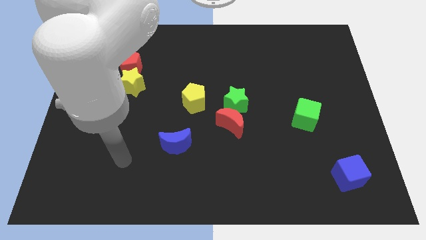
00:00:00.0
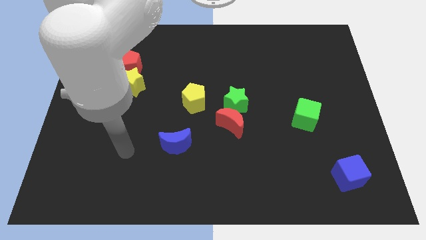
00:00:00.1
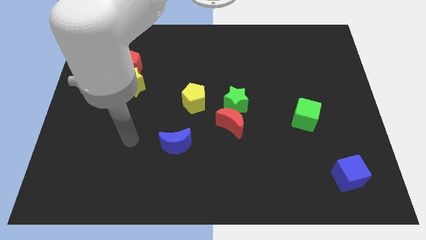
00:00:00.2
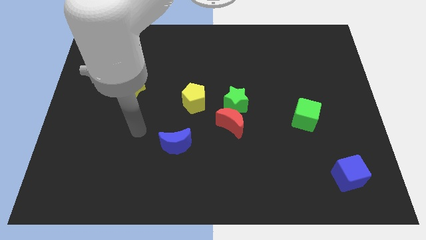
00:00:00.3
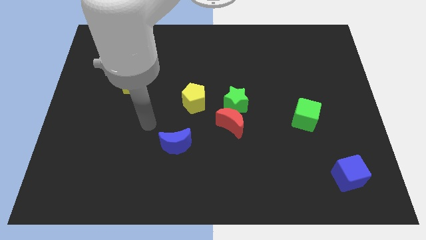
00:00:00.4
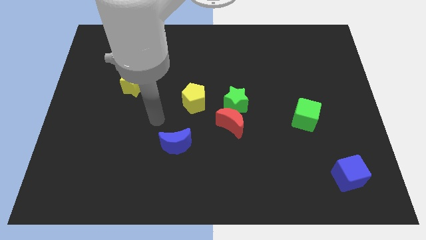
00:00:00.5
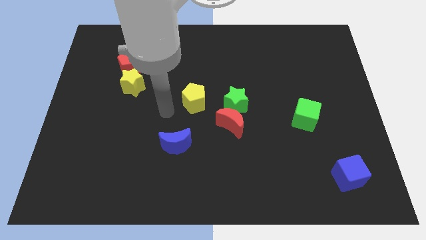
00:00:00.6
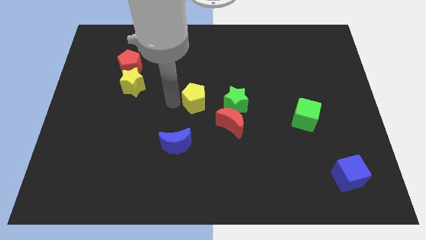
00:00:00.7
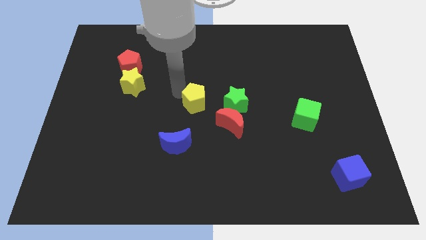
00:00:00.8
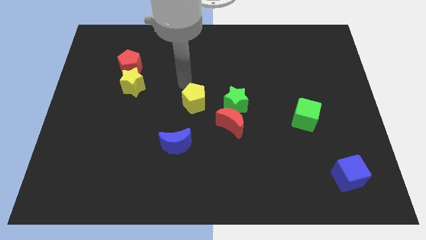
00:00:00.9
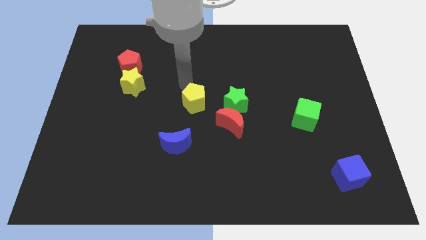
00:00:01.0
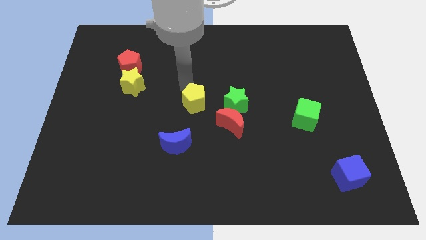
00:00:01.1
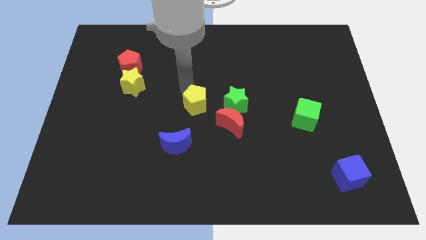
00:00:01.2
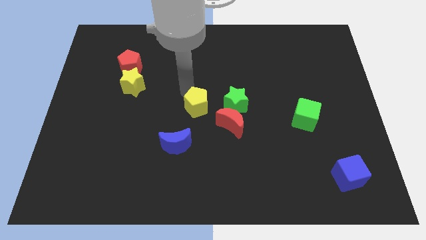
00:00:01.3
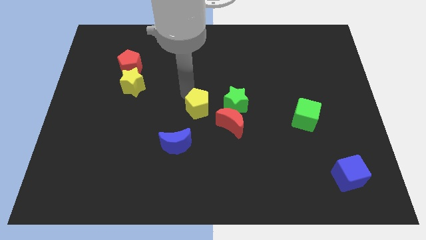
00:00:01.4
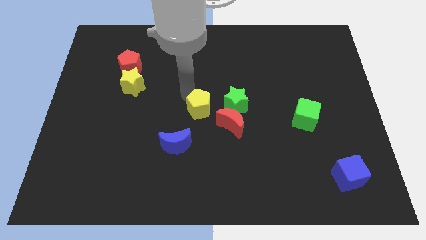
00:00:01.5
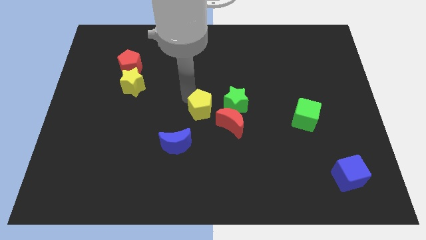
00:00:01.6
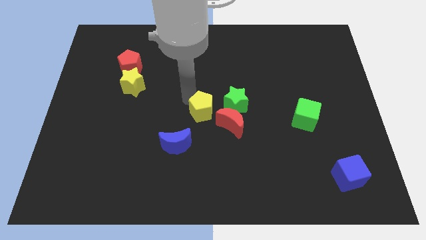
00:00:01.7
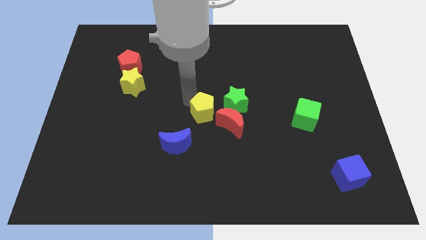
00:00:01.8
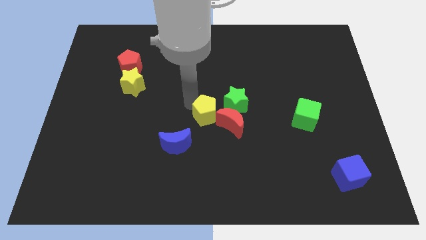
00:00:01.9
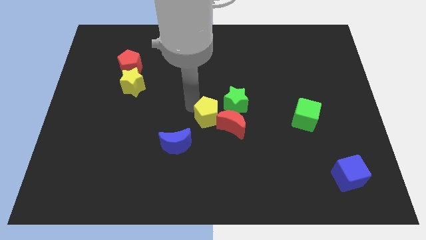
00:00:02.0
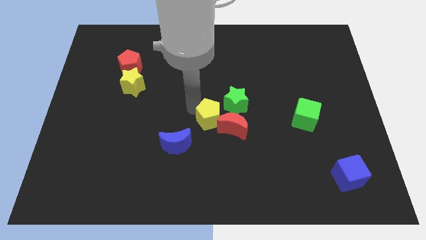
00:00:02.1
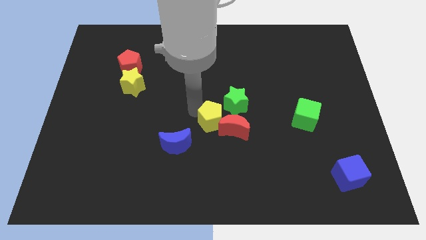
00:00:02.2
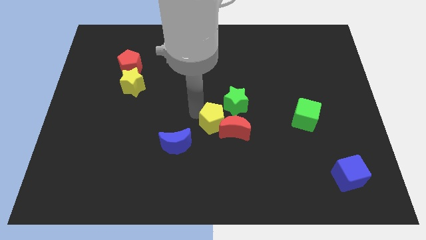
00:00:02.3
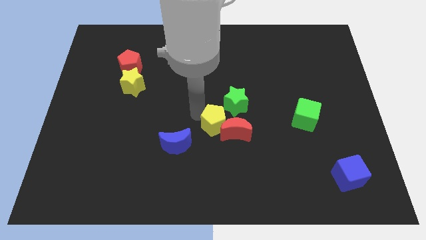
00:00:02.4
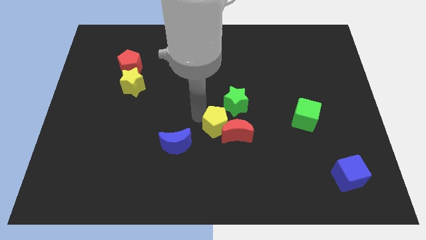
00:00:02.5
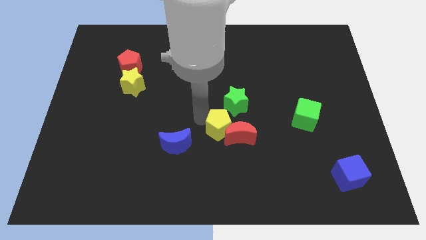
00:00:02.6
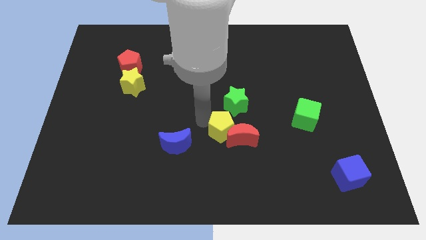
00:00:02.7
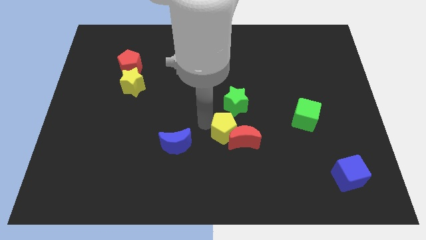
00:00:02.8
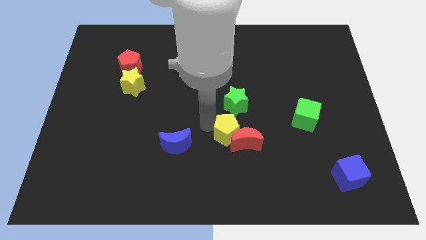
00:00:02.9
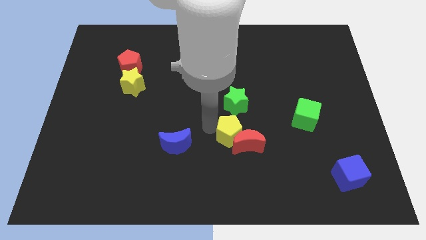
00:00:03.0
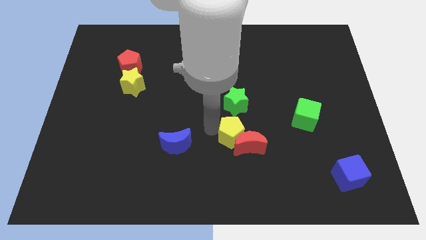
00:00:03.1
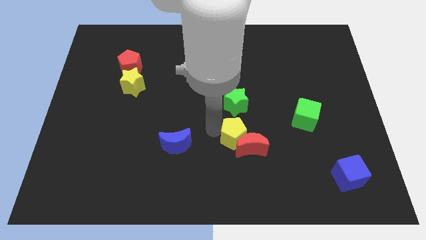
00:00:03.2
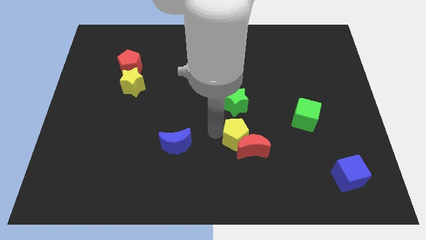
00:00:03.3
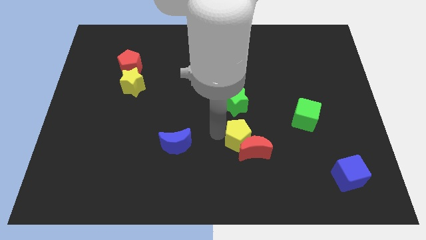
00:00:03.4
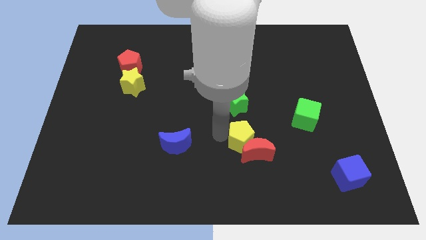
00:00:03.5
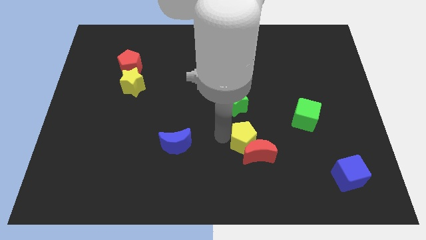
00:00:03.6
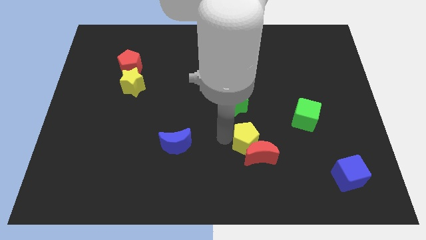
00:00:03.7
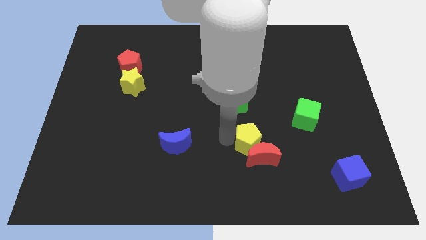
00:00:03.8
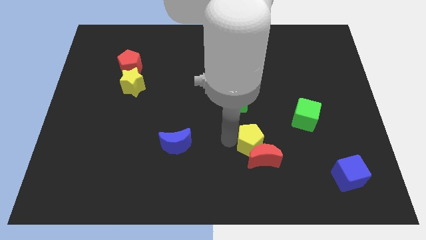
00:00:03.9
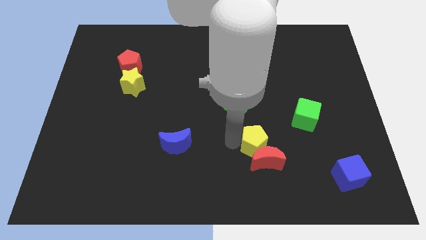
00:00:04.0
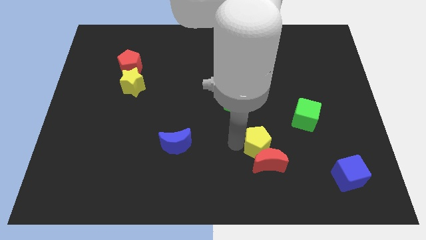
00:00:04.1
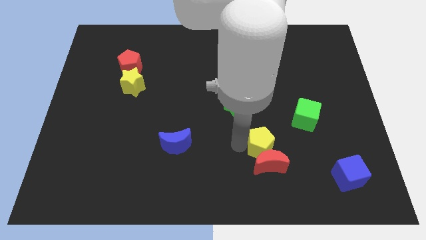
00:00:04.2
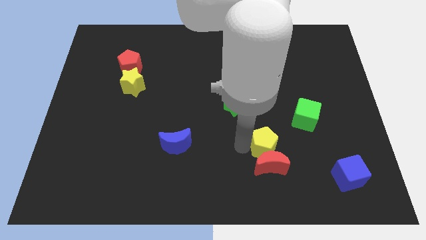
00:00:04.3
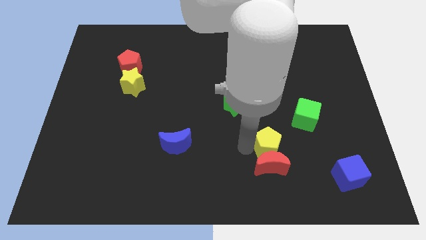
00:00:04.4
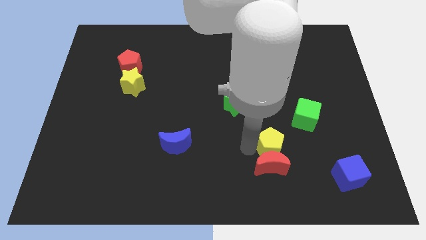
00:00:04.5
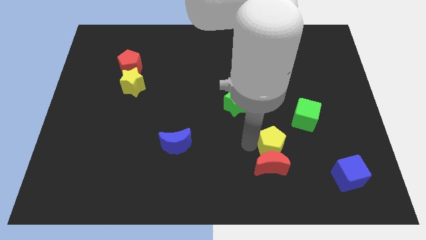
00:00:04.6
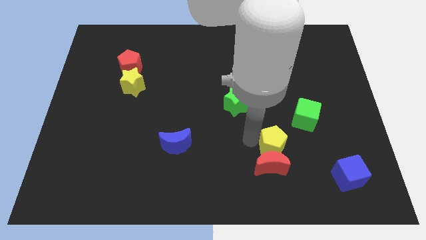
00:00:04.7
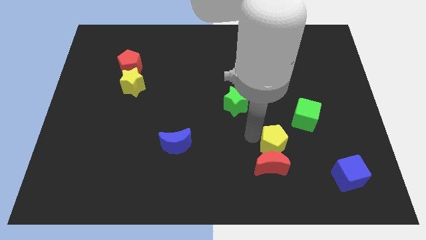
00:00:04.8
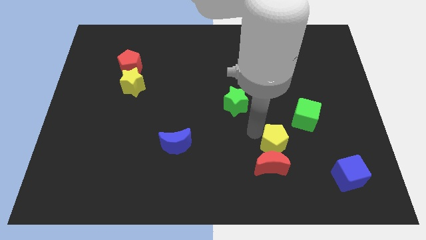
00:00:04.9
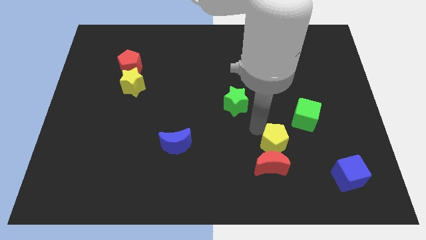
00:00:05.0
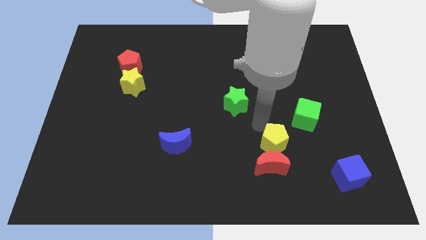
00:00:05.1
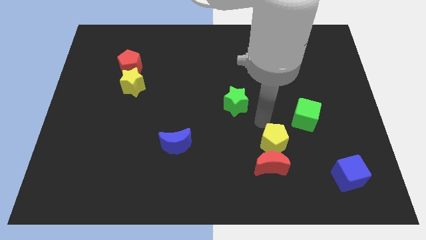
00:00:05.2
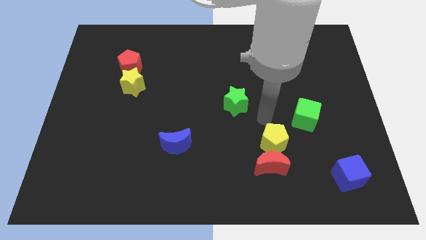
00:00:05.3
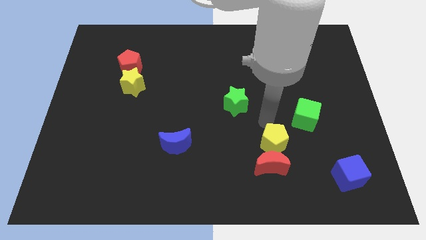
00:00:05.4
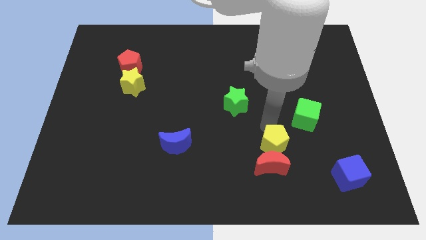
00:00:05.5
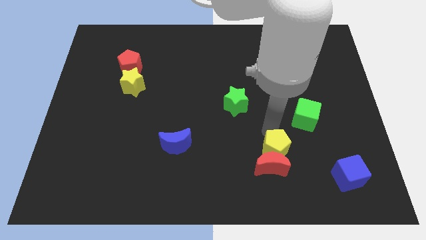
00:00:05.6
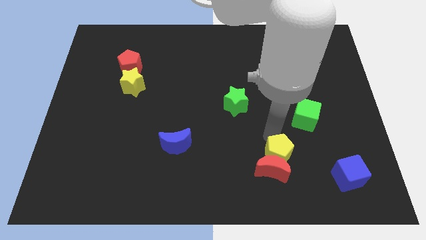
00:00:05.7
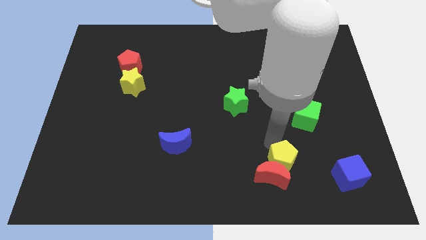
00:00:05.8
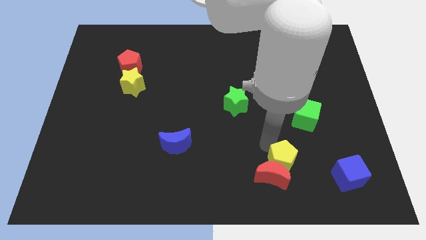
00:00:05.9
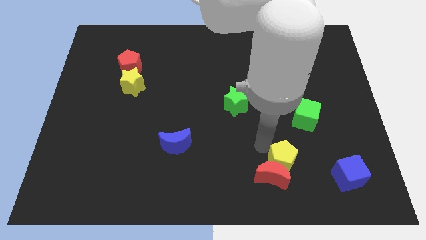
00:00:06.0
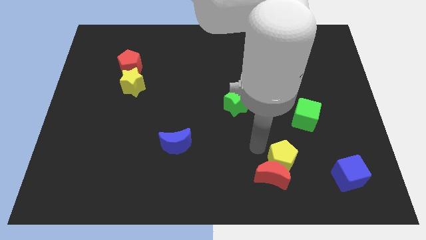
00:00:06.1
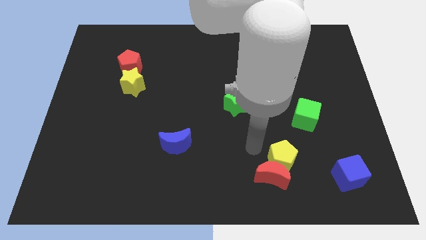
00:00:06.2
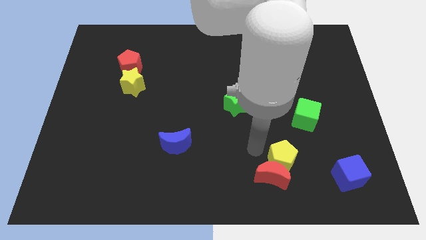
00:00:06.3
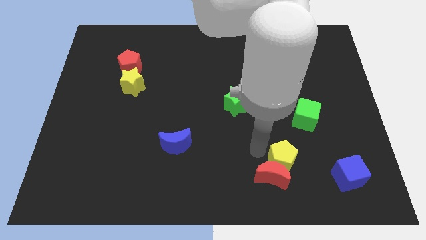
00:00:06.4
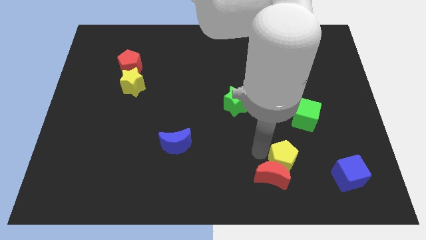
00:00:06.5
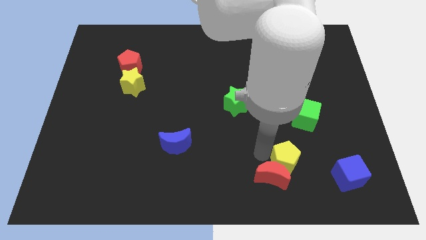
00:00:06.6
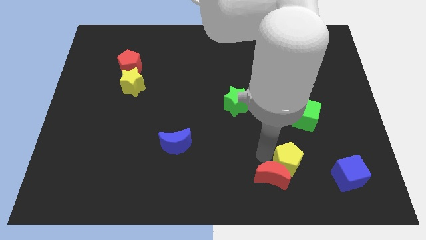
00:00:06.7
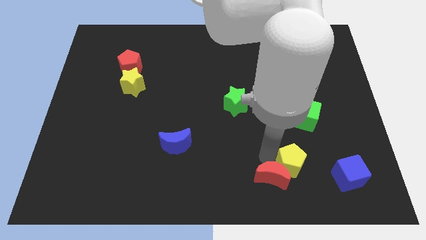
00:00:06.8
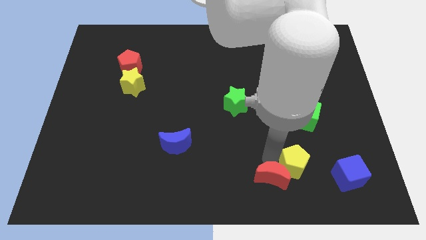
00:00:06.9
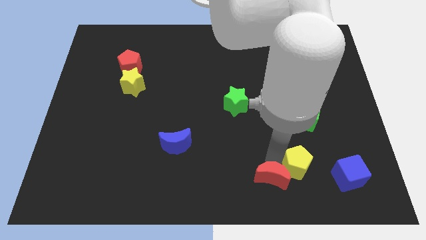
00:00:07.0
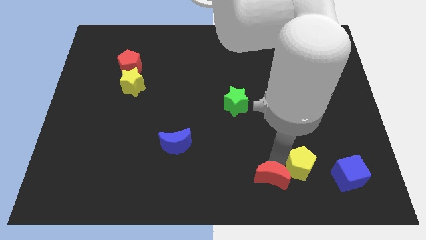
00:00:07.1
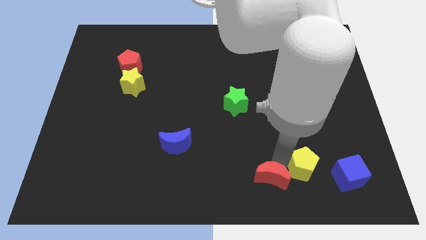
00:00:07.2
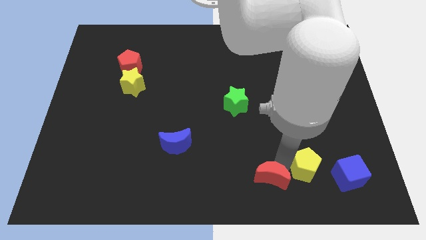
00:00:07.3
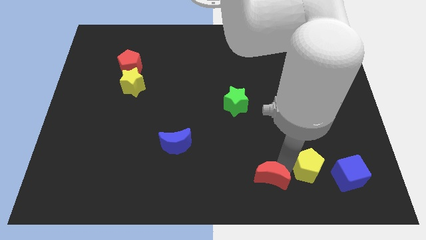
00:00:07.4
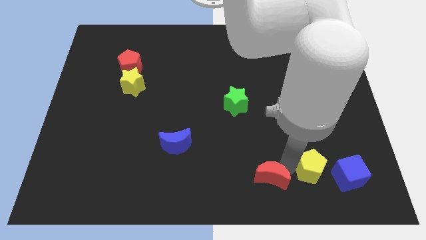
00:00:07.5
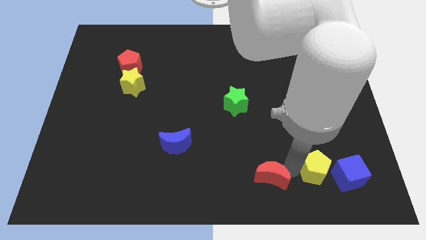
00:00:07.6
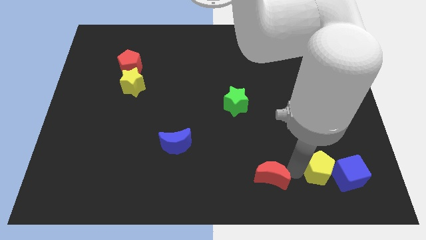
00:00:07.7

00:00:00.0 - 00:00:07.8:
move the yellow pentagon next to the blue cube
